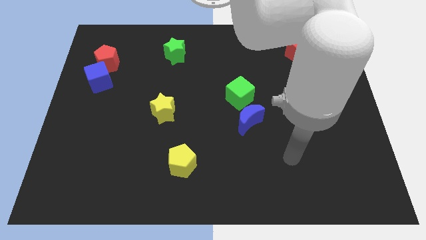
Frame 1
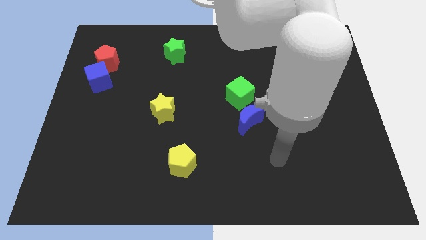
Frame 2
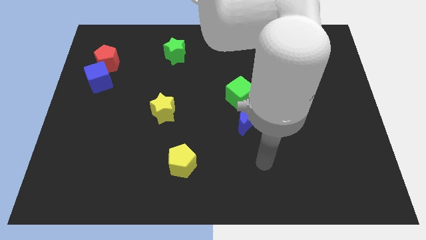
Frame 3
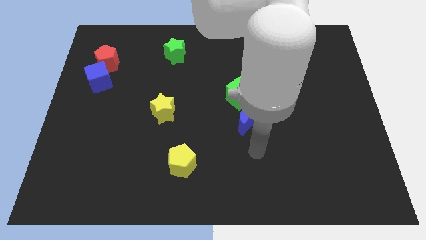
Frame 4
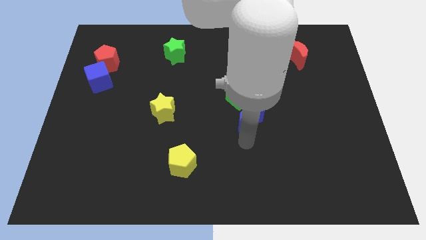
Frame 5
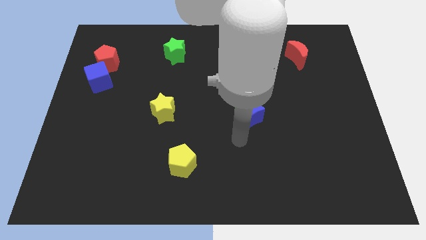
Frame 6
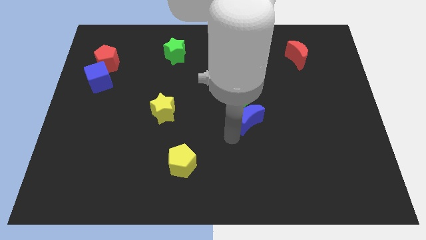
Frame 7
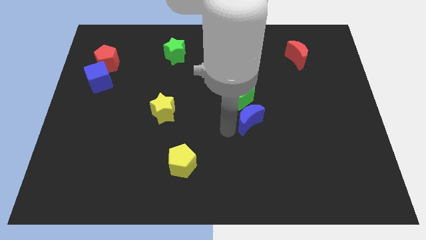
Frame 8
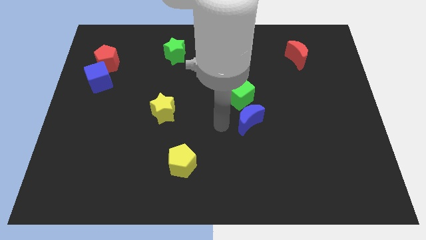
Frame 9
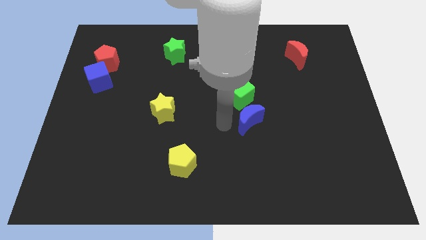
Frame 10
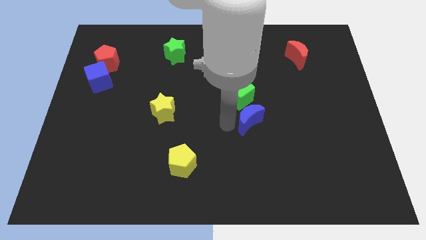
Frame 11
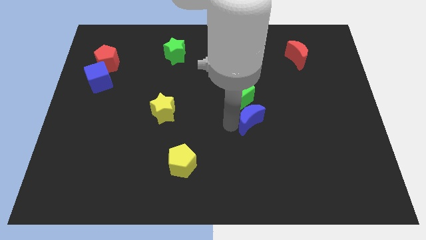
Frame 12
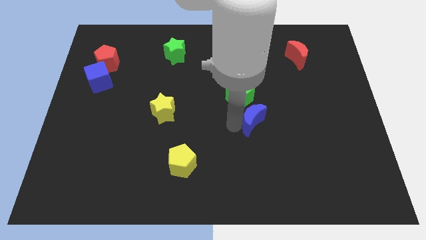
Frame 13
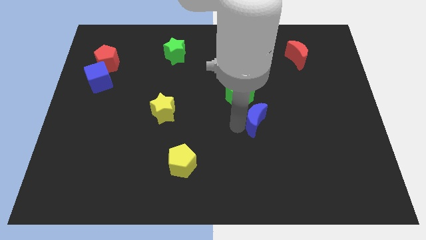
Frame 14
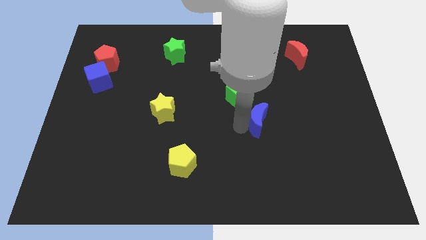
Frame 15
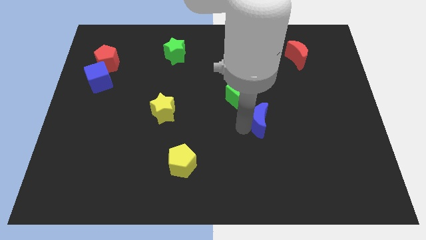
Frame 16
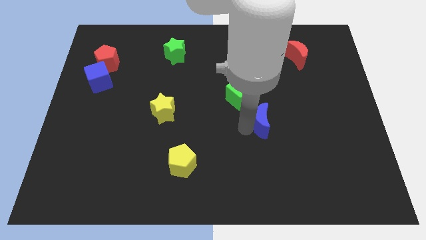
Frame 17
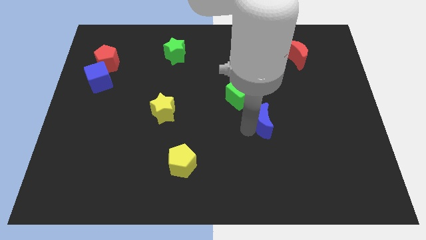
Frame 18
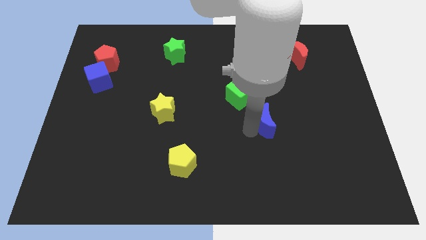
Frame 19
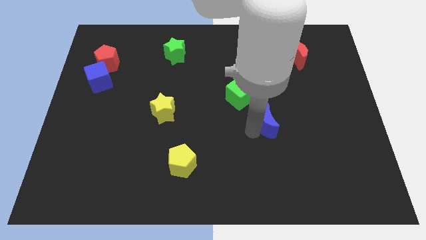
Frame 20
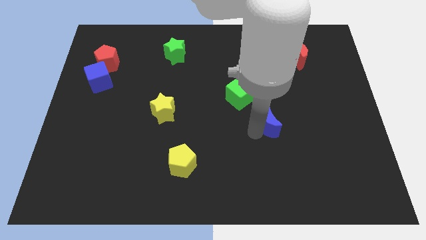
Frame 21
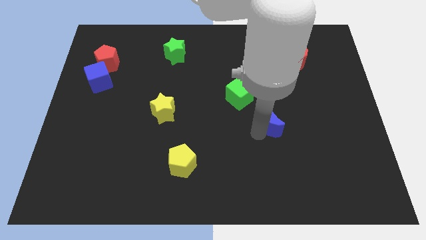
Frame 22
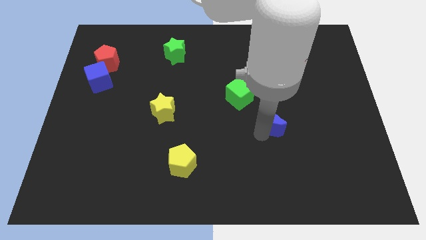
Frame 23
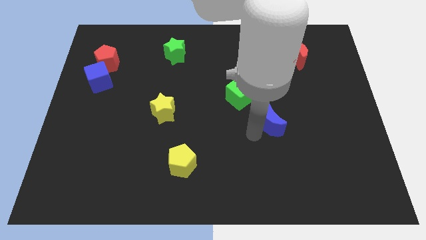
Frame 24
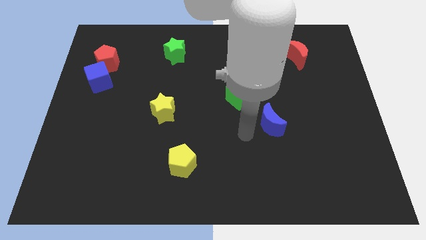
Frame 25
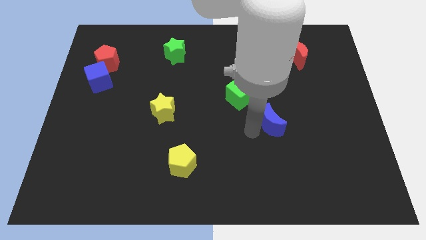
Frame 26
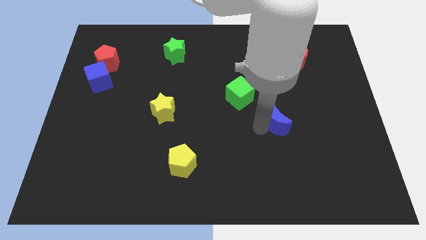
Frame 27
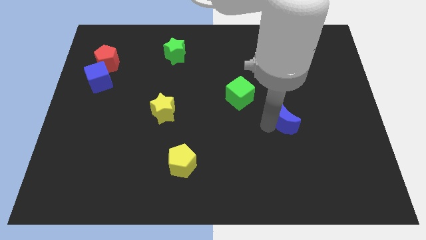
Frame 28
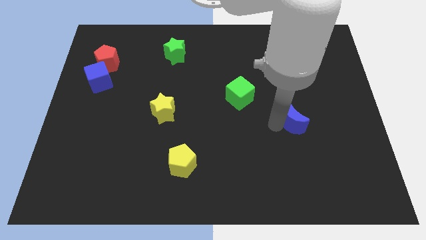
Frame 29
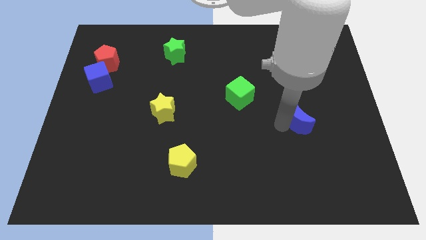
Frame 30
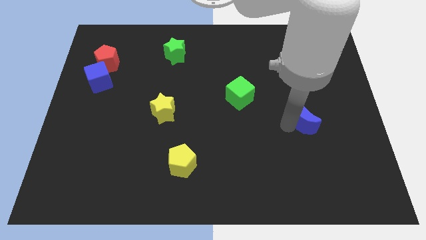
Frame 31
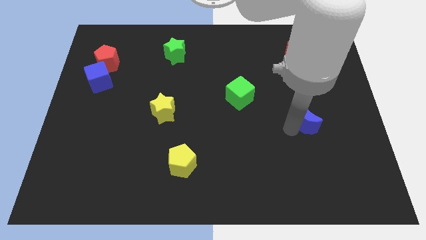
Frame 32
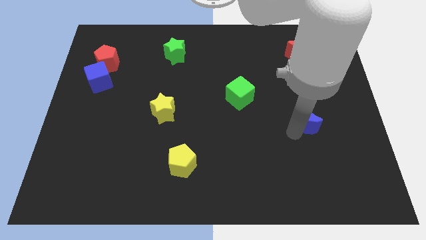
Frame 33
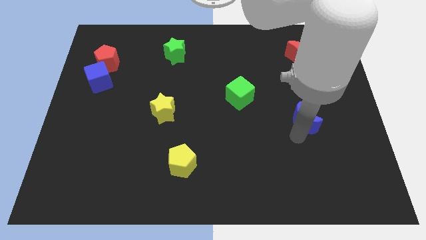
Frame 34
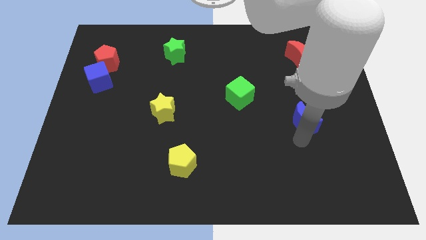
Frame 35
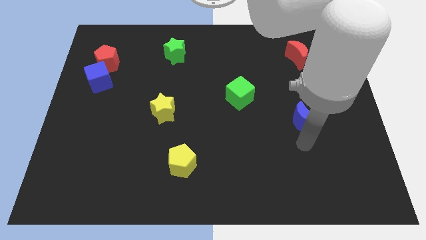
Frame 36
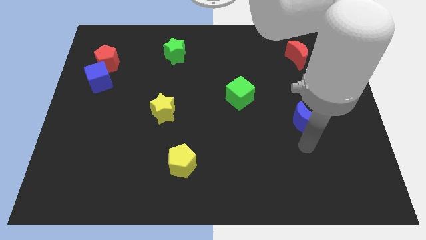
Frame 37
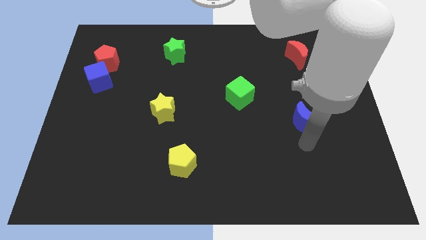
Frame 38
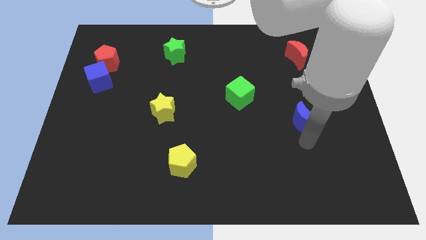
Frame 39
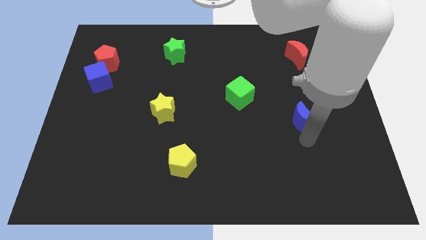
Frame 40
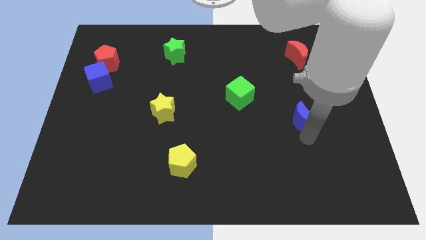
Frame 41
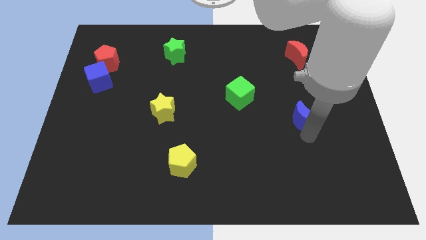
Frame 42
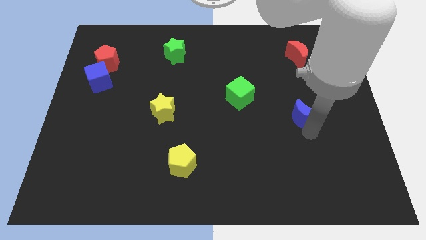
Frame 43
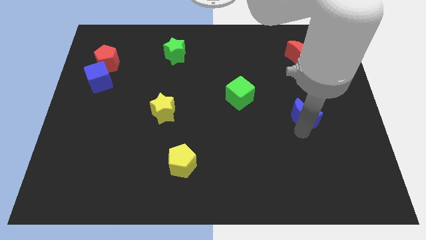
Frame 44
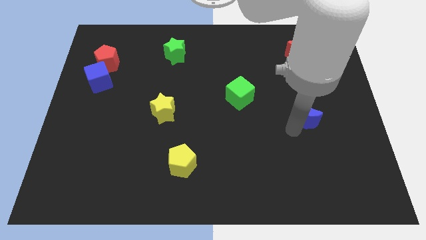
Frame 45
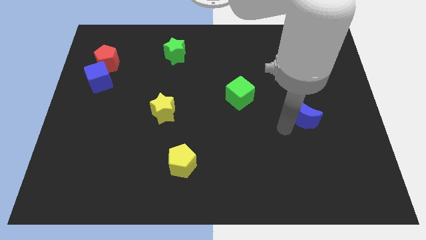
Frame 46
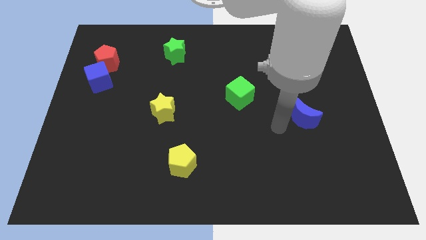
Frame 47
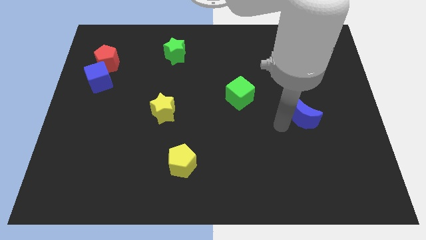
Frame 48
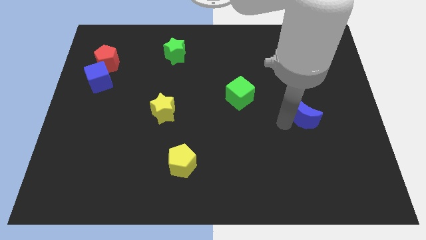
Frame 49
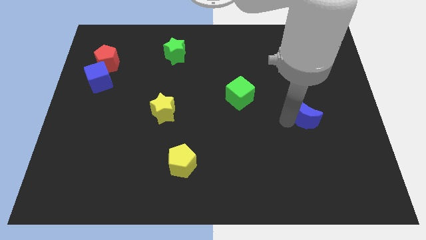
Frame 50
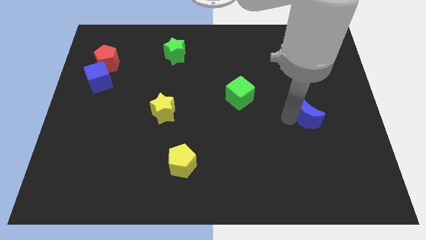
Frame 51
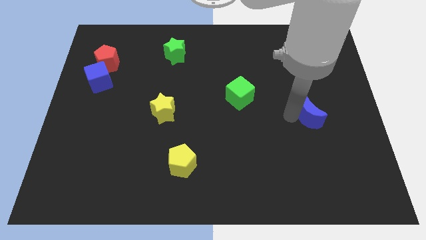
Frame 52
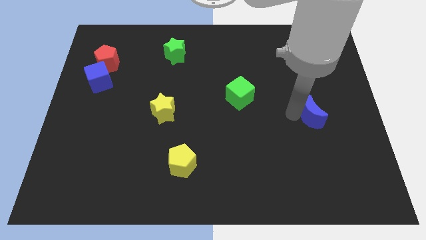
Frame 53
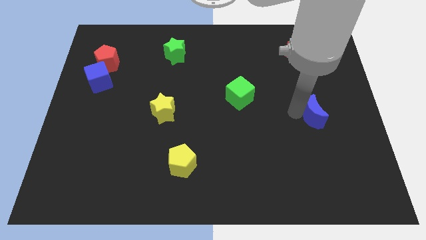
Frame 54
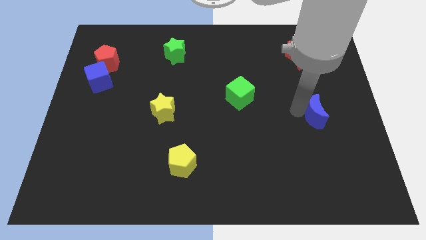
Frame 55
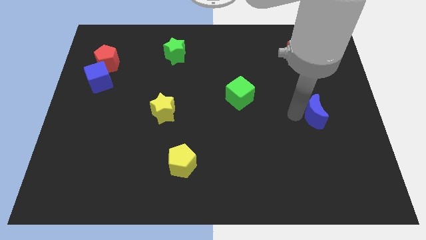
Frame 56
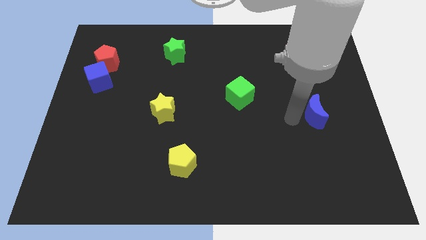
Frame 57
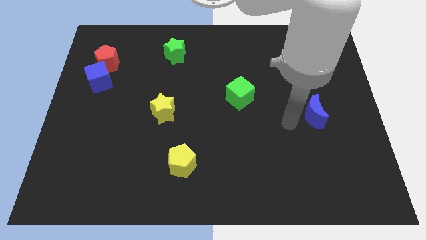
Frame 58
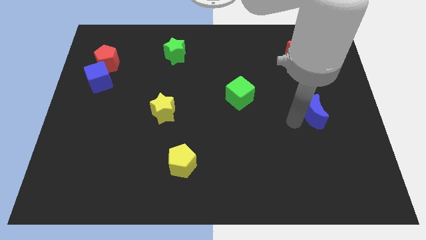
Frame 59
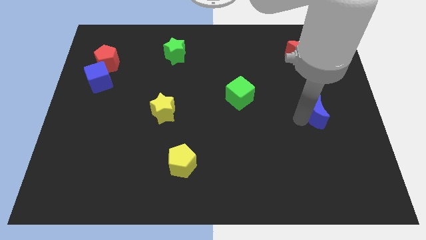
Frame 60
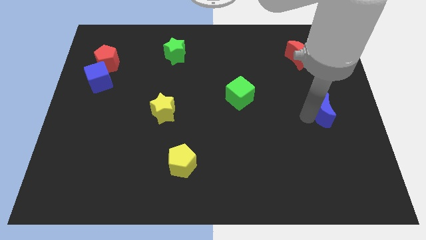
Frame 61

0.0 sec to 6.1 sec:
put the blue moon to the right side

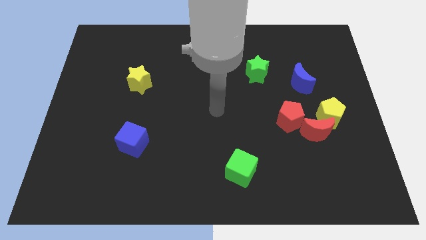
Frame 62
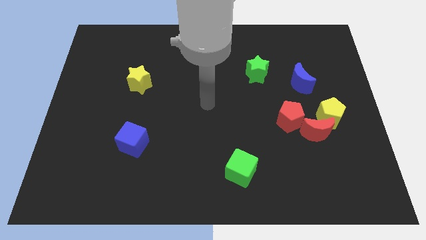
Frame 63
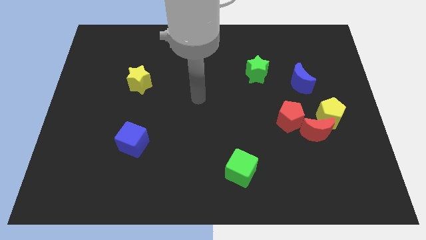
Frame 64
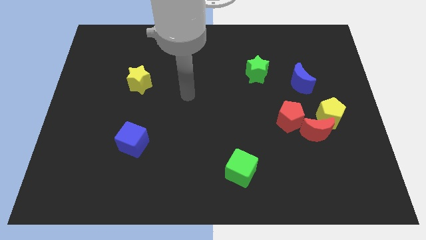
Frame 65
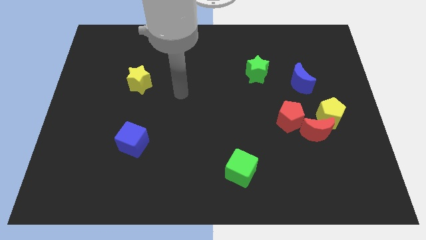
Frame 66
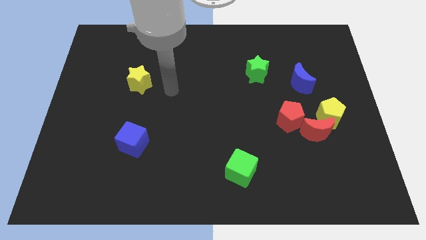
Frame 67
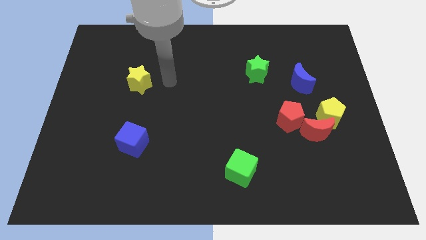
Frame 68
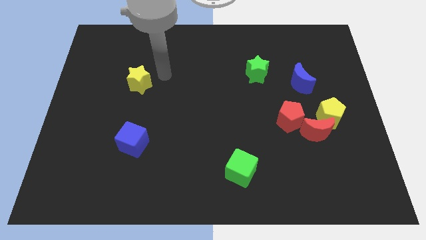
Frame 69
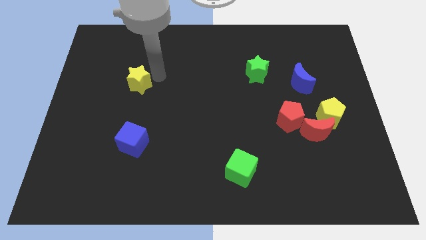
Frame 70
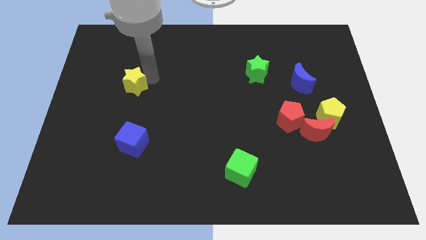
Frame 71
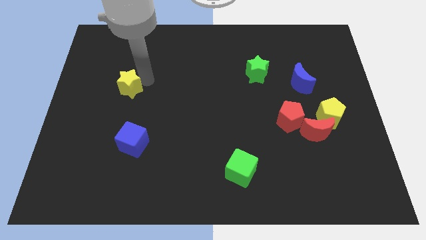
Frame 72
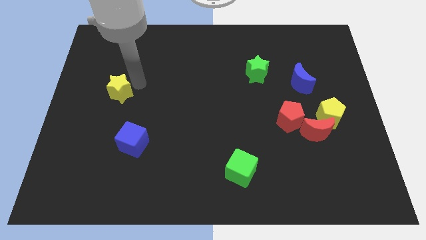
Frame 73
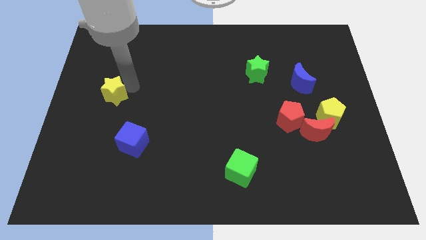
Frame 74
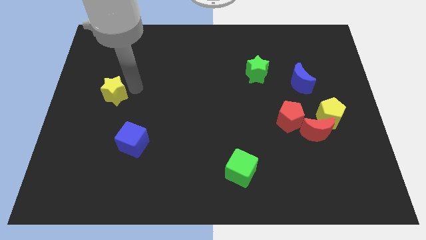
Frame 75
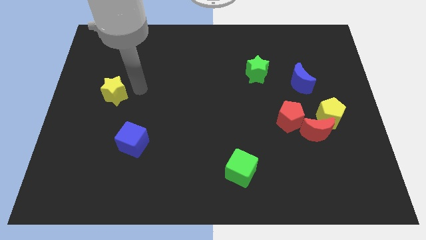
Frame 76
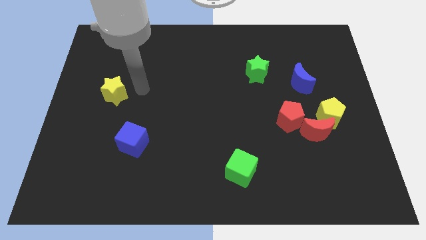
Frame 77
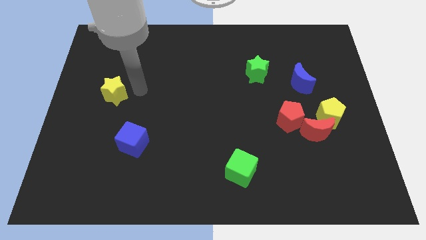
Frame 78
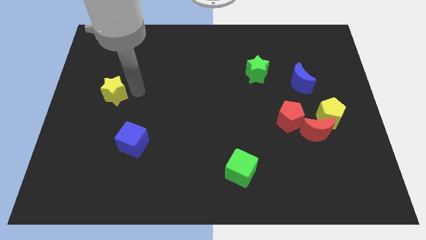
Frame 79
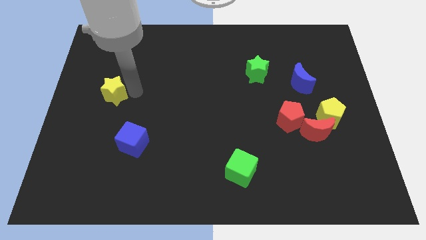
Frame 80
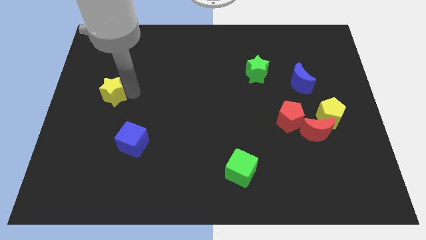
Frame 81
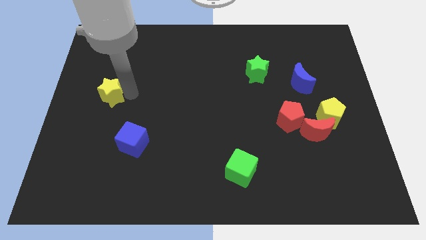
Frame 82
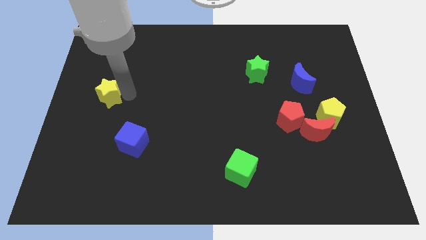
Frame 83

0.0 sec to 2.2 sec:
slide the yellow star to the left side
